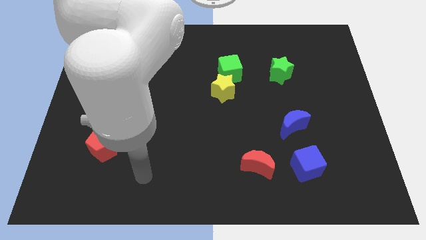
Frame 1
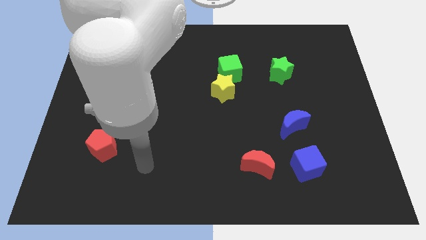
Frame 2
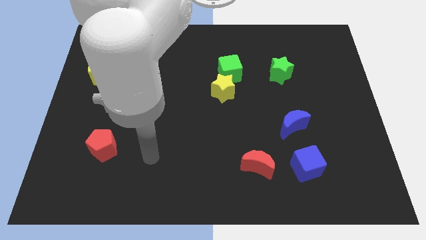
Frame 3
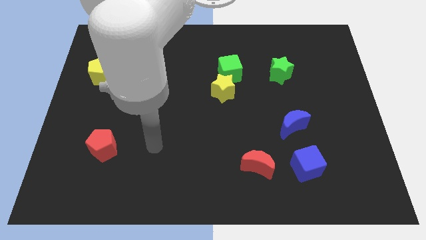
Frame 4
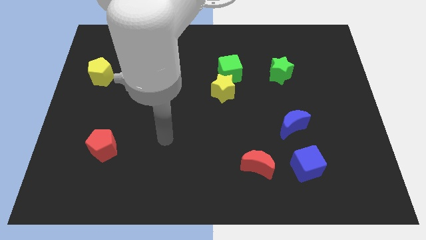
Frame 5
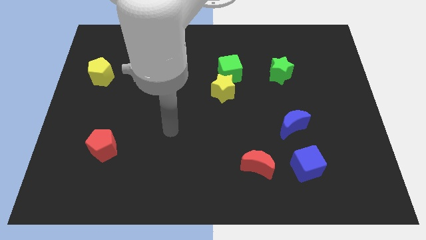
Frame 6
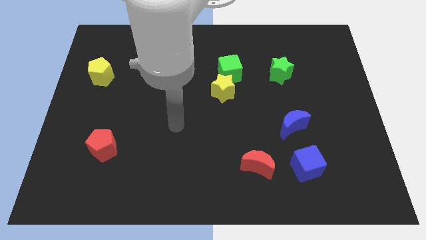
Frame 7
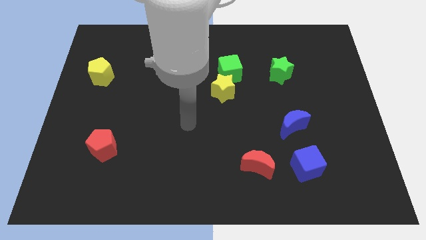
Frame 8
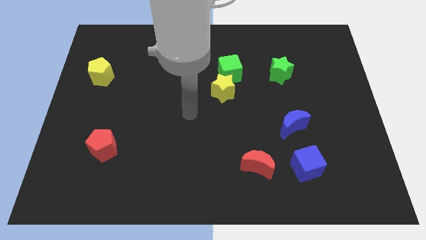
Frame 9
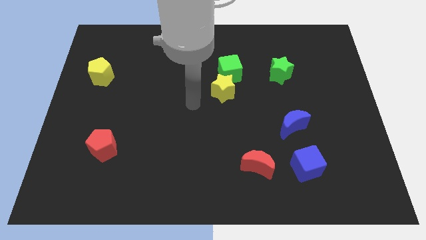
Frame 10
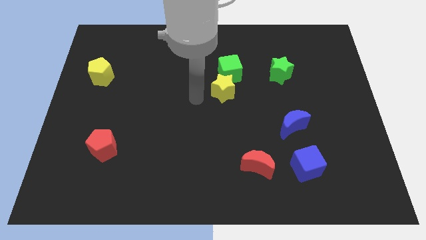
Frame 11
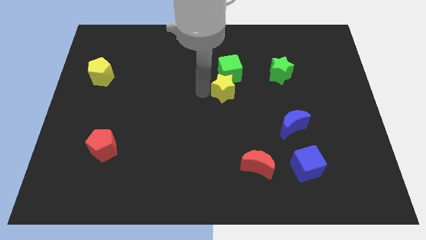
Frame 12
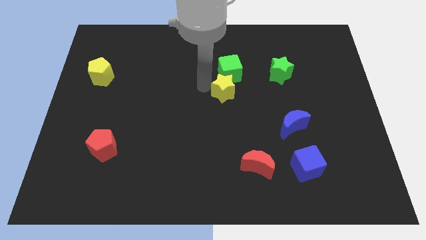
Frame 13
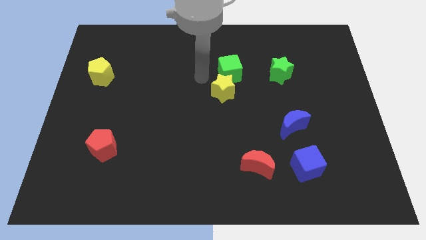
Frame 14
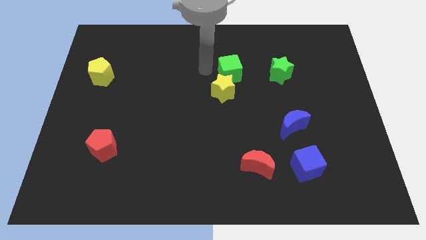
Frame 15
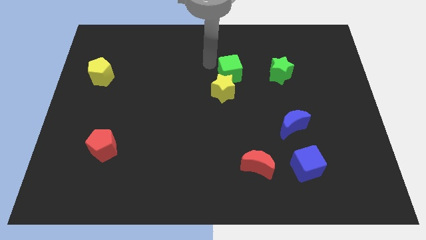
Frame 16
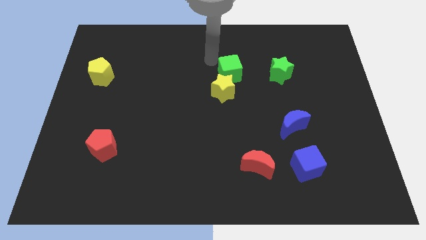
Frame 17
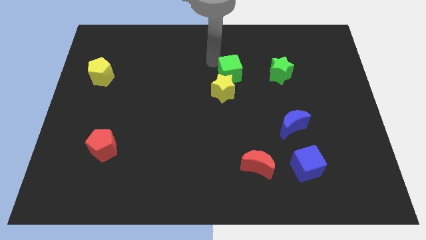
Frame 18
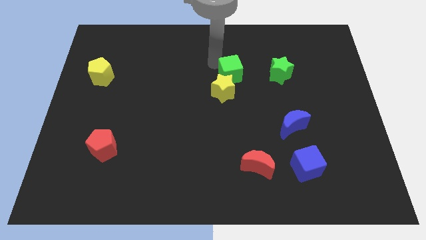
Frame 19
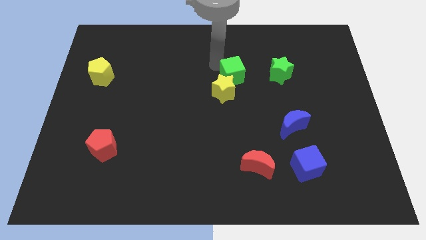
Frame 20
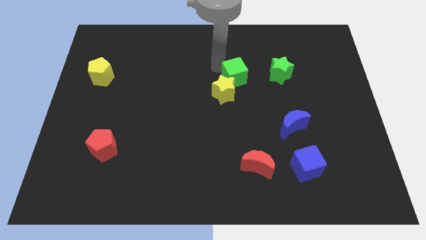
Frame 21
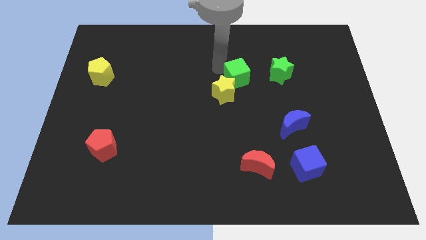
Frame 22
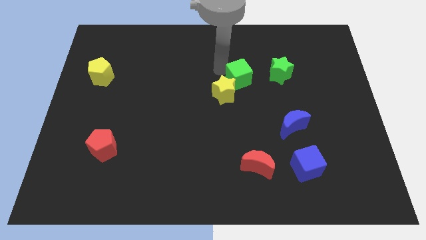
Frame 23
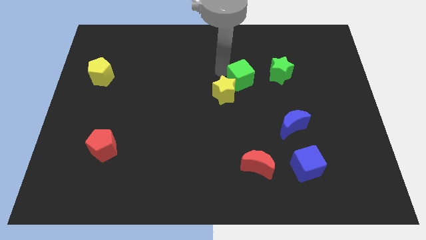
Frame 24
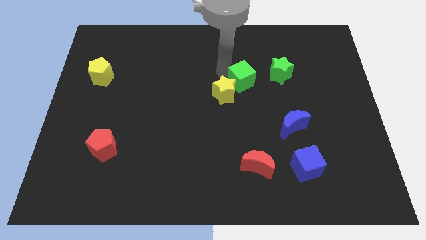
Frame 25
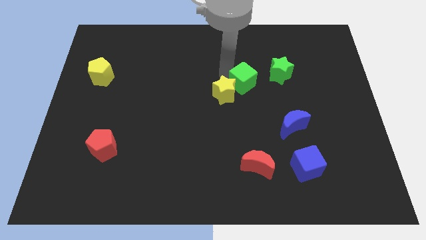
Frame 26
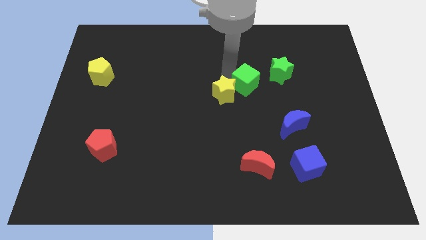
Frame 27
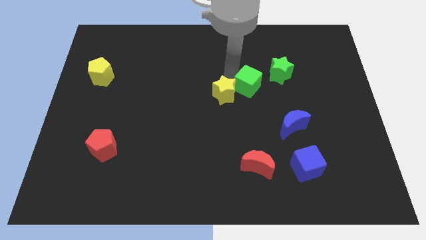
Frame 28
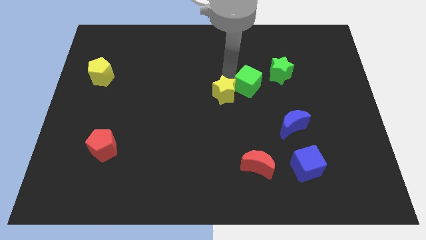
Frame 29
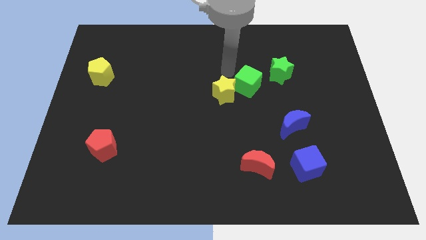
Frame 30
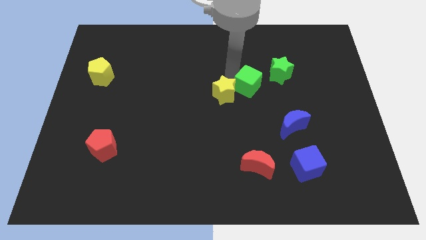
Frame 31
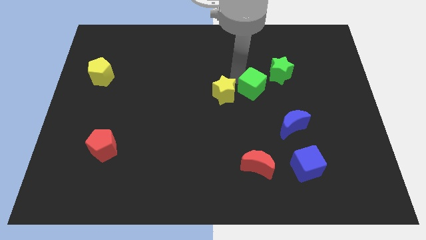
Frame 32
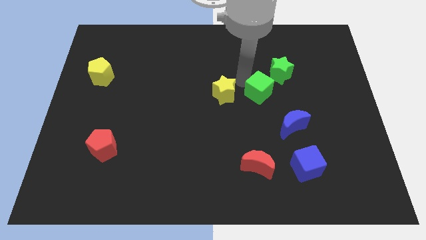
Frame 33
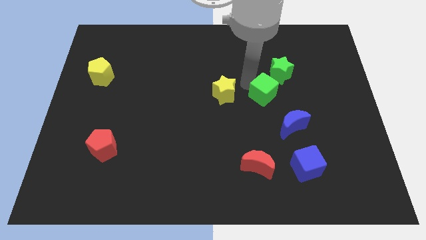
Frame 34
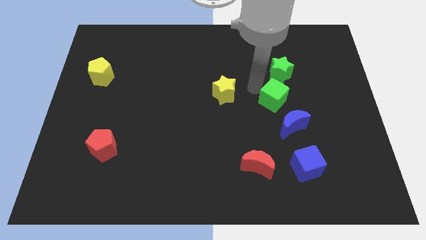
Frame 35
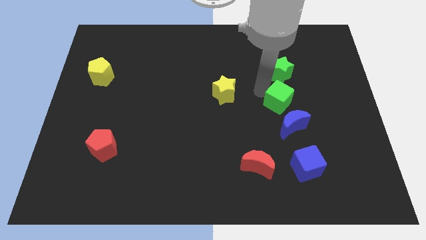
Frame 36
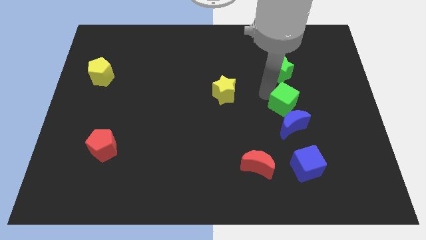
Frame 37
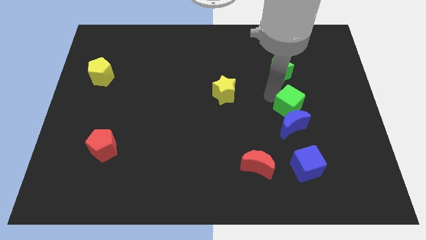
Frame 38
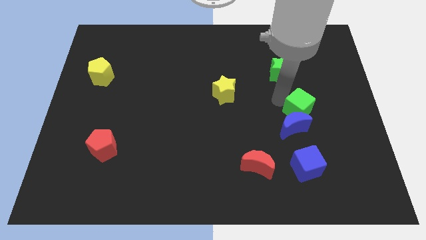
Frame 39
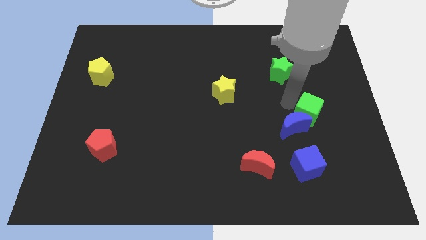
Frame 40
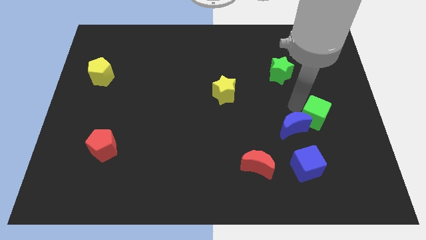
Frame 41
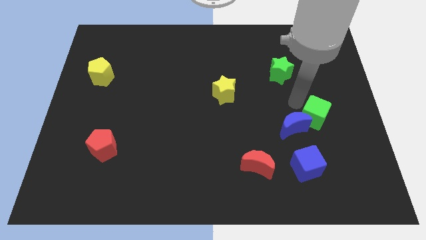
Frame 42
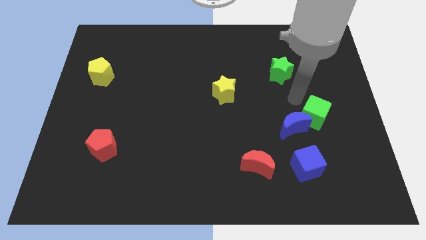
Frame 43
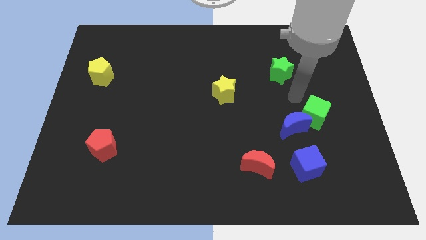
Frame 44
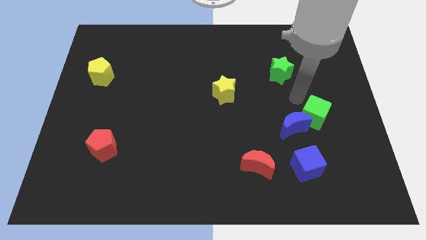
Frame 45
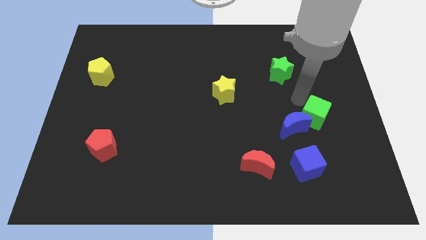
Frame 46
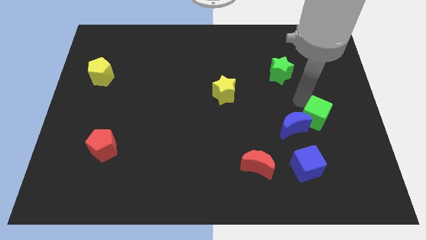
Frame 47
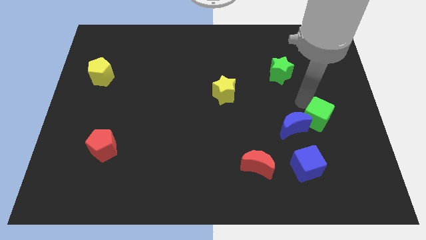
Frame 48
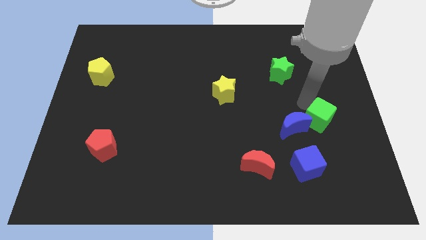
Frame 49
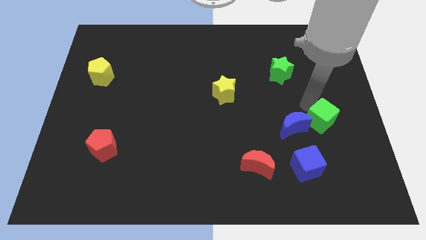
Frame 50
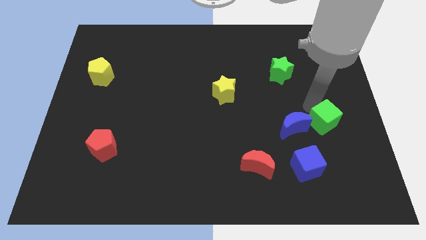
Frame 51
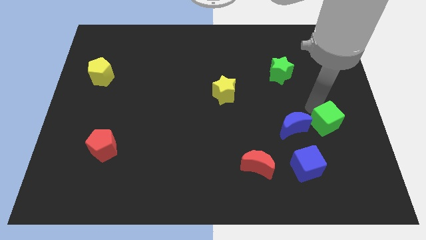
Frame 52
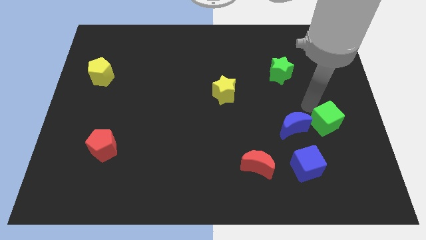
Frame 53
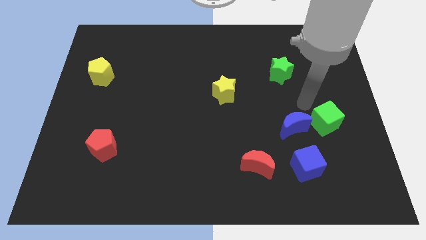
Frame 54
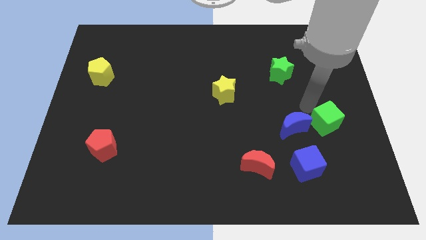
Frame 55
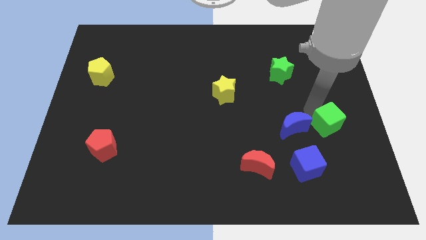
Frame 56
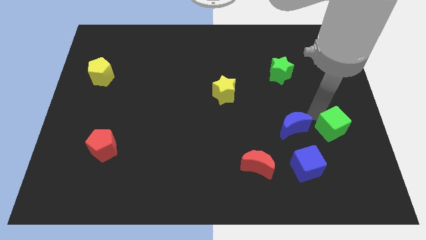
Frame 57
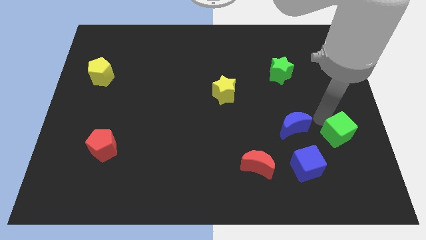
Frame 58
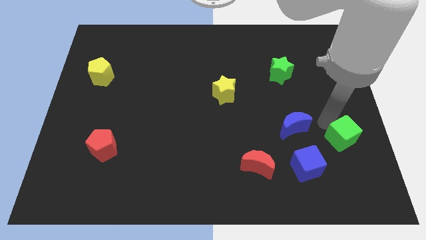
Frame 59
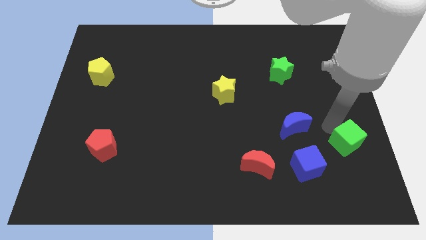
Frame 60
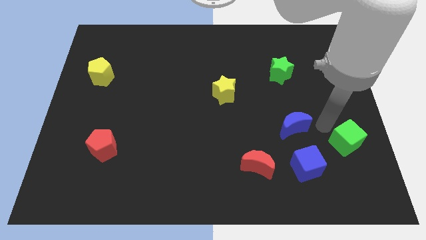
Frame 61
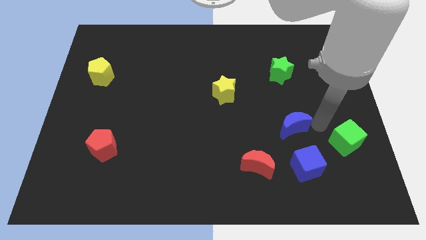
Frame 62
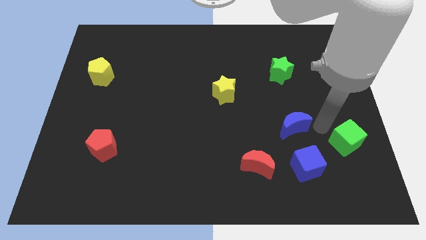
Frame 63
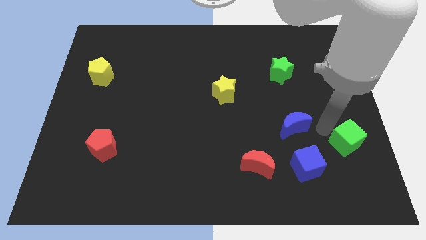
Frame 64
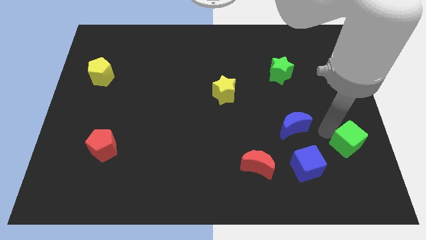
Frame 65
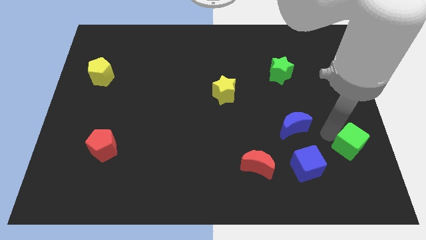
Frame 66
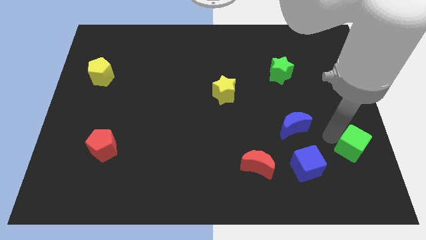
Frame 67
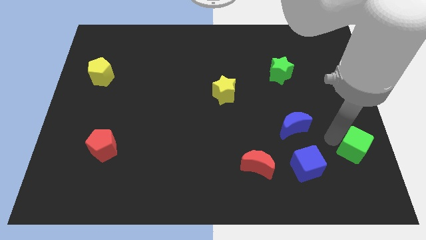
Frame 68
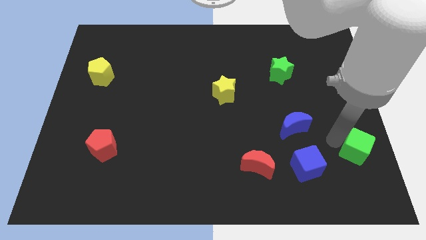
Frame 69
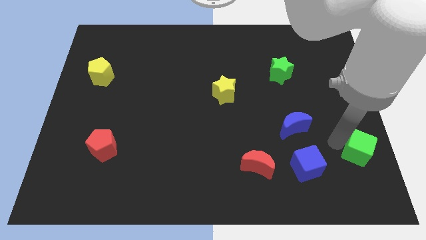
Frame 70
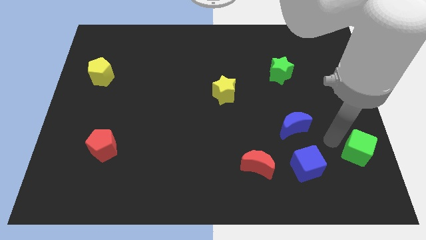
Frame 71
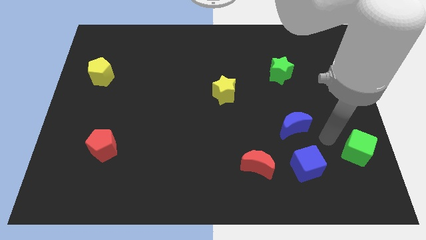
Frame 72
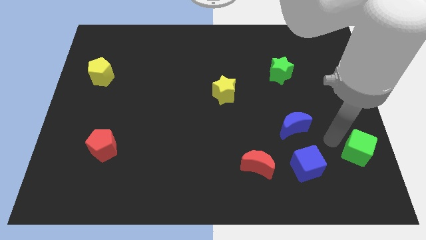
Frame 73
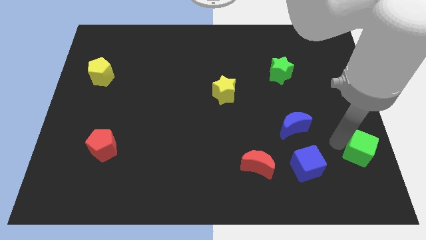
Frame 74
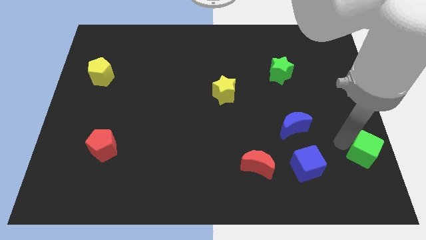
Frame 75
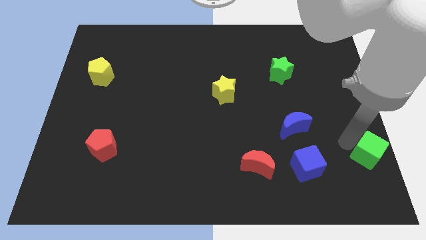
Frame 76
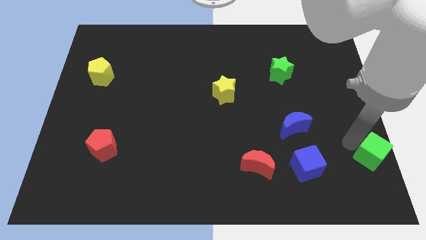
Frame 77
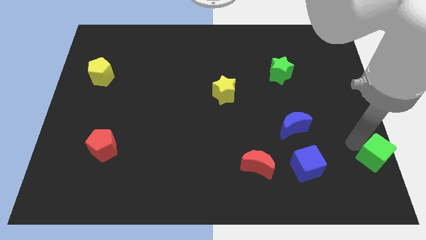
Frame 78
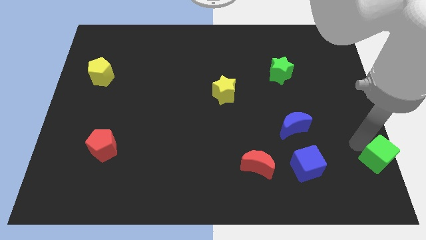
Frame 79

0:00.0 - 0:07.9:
slide the green cube to the lower right corner
